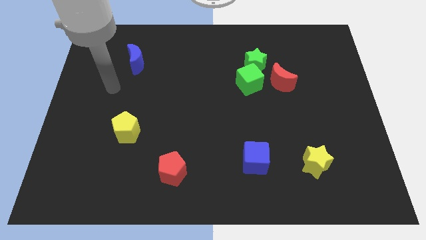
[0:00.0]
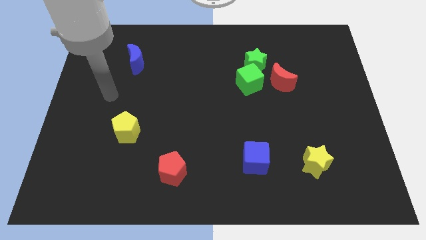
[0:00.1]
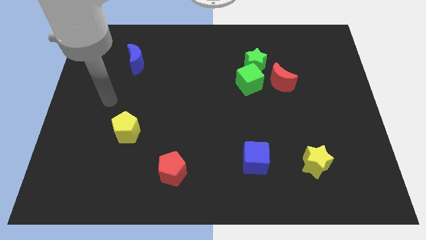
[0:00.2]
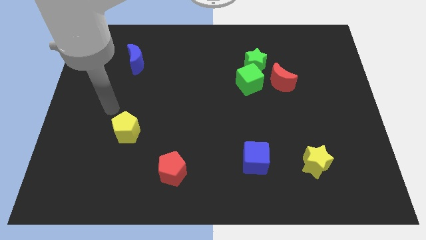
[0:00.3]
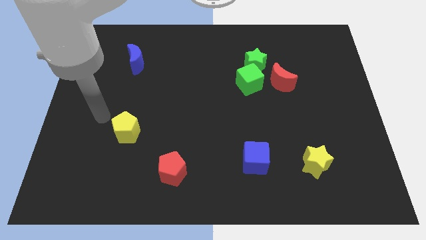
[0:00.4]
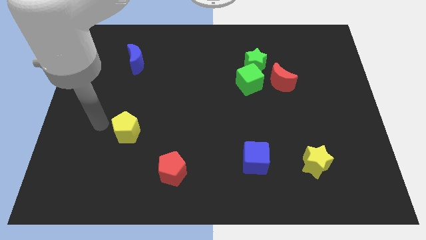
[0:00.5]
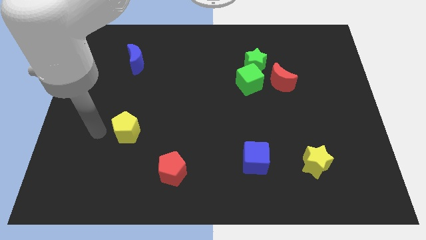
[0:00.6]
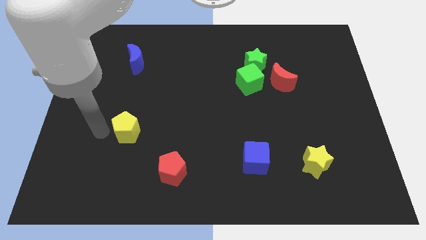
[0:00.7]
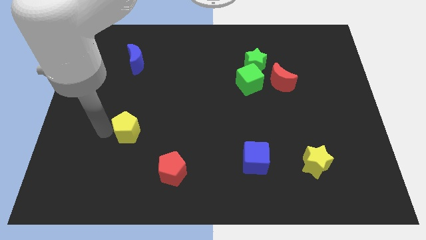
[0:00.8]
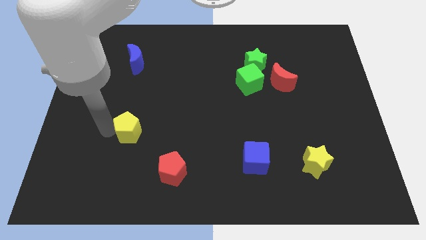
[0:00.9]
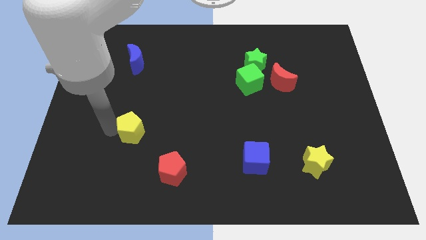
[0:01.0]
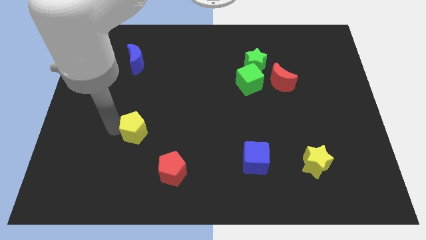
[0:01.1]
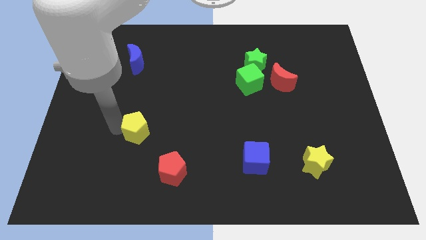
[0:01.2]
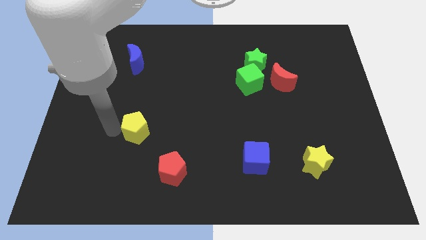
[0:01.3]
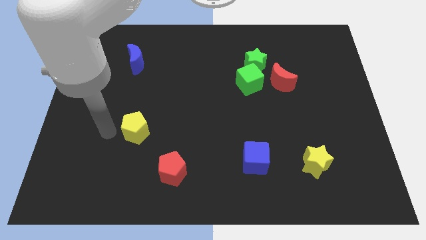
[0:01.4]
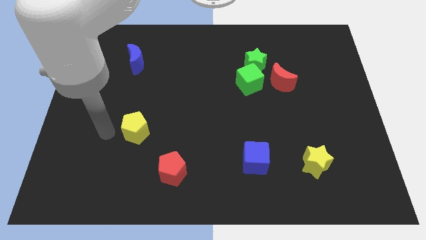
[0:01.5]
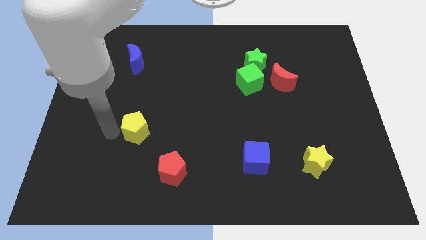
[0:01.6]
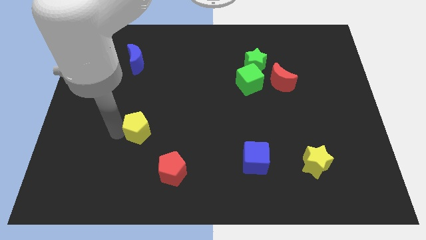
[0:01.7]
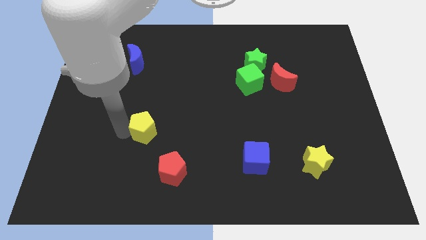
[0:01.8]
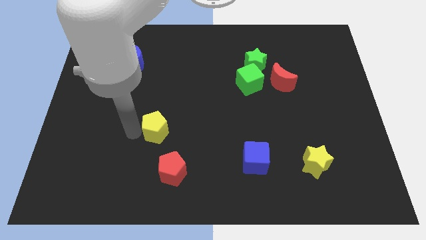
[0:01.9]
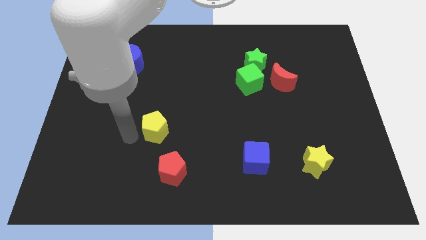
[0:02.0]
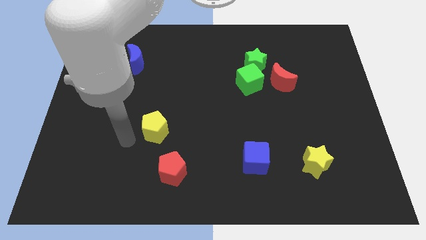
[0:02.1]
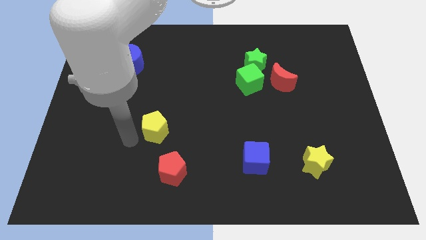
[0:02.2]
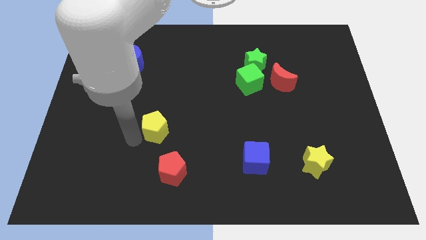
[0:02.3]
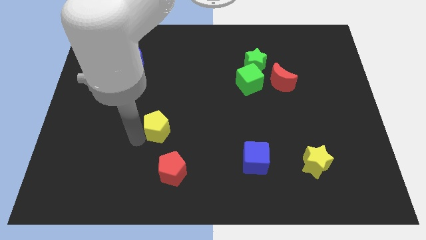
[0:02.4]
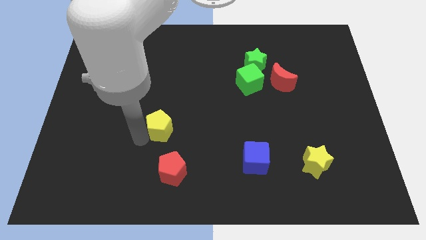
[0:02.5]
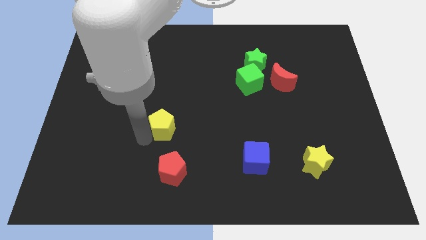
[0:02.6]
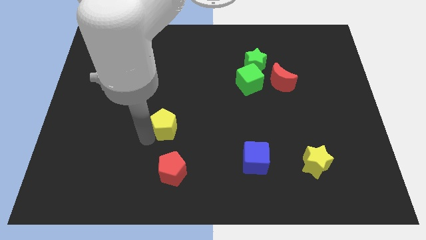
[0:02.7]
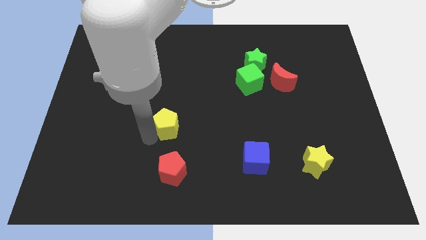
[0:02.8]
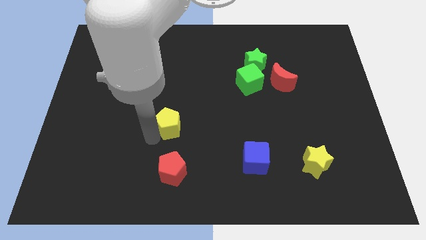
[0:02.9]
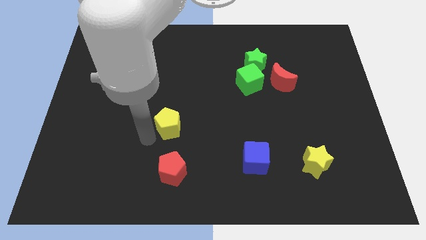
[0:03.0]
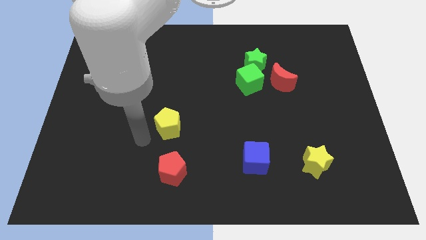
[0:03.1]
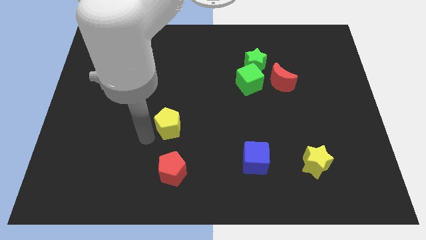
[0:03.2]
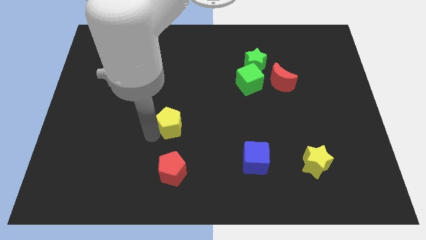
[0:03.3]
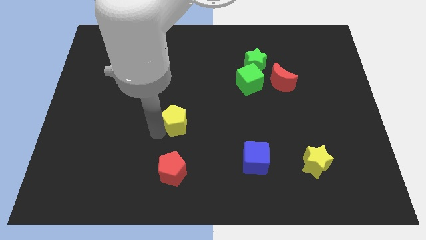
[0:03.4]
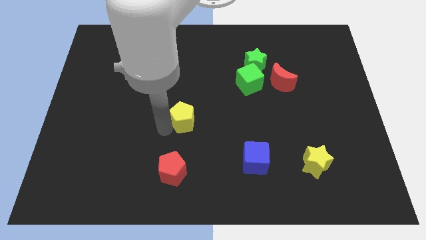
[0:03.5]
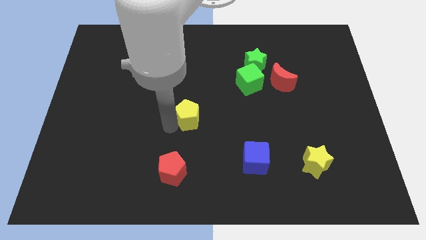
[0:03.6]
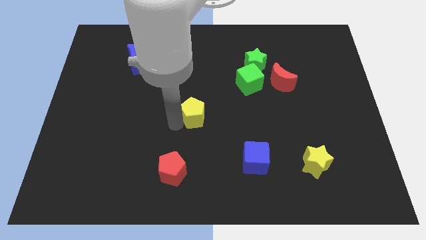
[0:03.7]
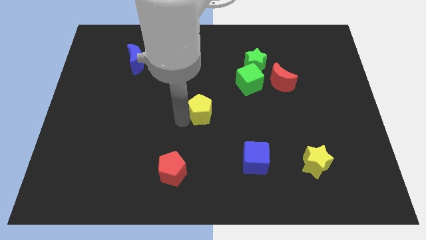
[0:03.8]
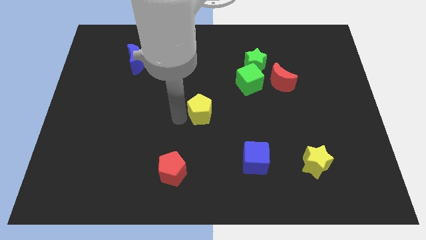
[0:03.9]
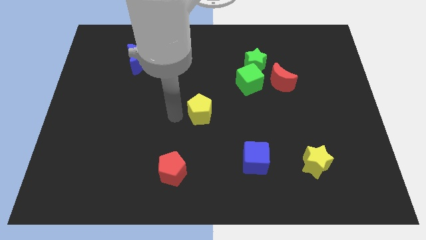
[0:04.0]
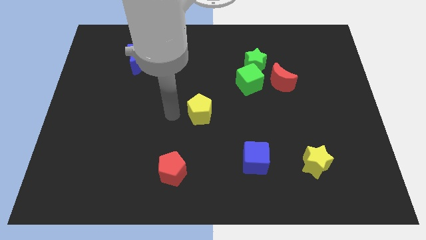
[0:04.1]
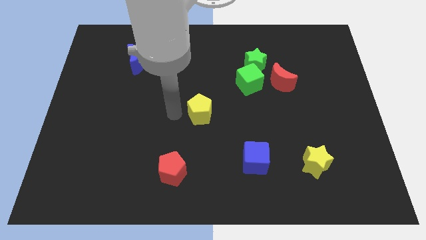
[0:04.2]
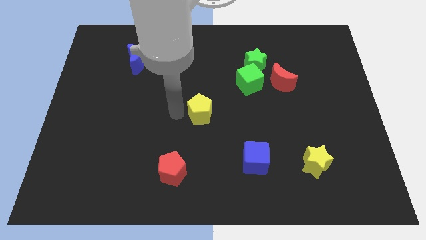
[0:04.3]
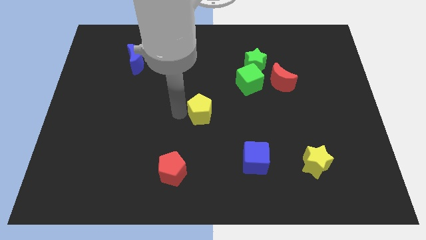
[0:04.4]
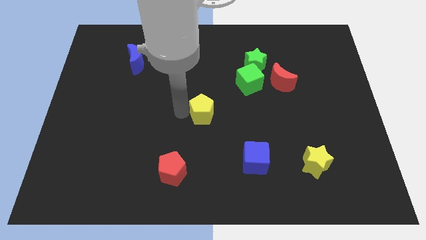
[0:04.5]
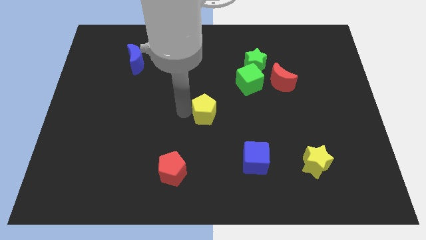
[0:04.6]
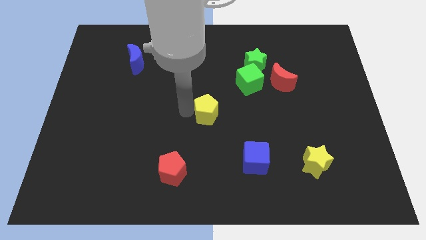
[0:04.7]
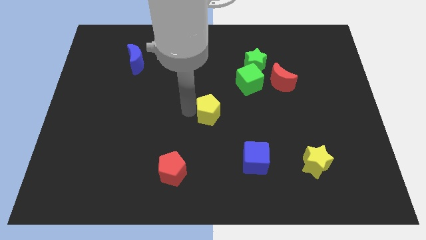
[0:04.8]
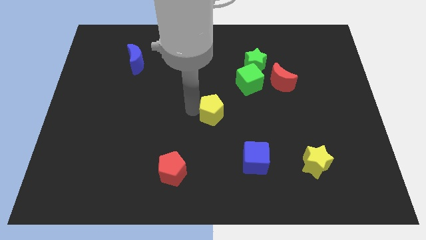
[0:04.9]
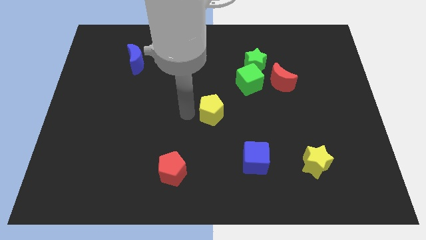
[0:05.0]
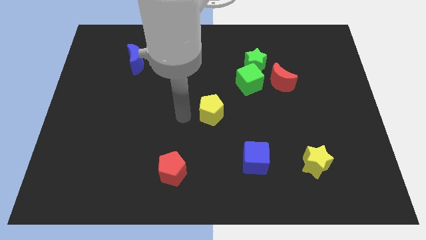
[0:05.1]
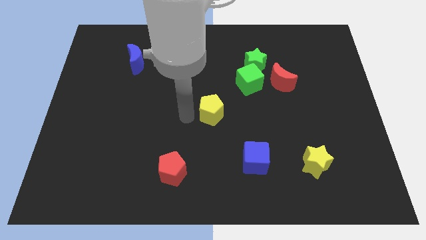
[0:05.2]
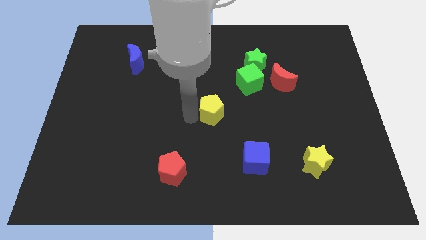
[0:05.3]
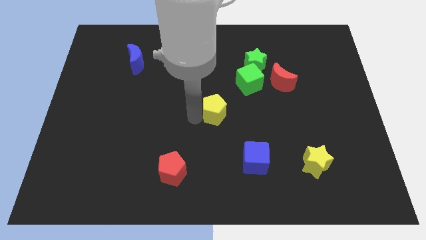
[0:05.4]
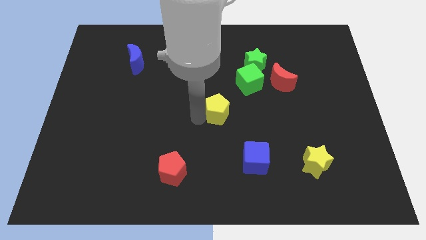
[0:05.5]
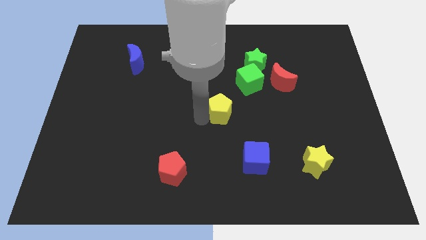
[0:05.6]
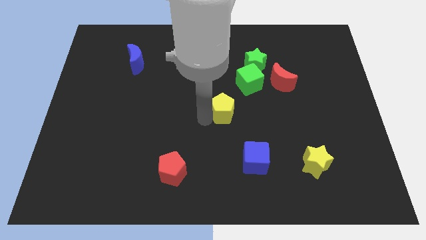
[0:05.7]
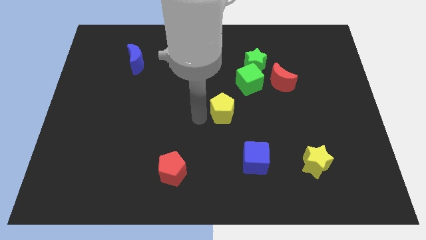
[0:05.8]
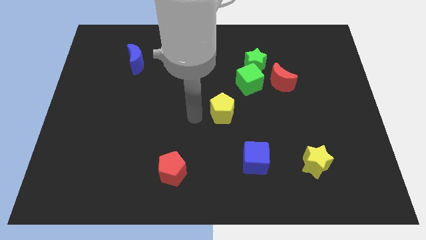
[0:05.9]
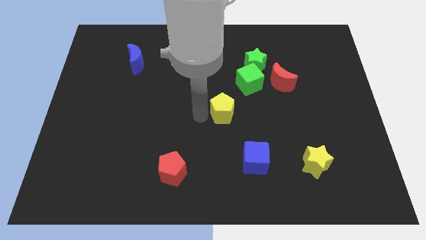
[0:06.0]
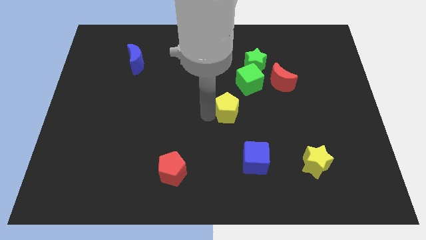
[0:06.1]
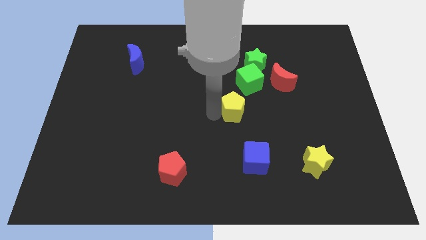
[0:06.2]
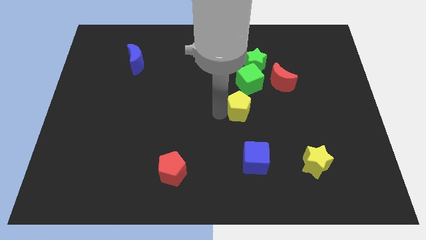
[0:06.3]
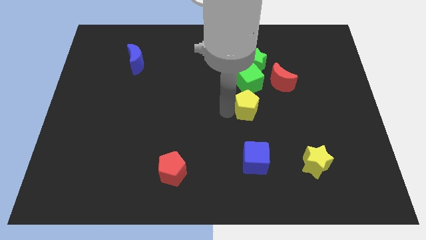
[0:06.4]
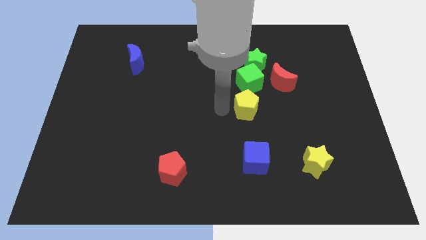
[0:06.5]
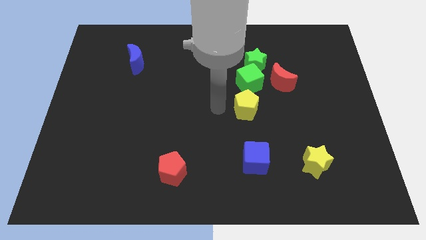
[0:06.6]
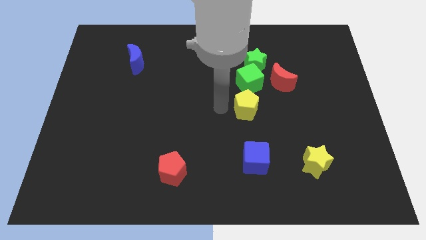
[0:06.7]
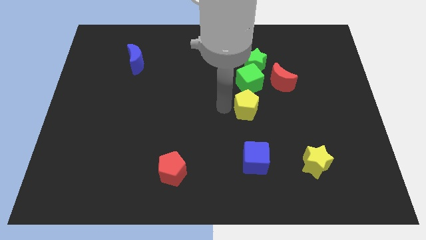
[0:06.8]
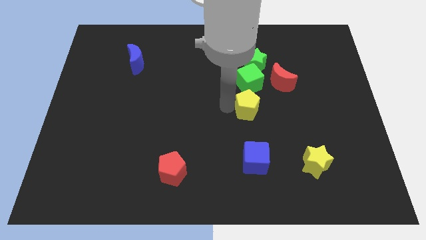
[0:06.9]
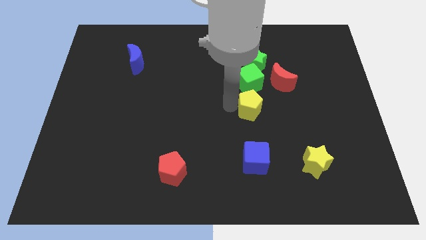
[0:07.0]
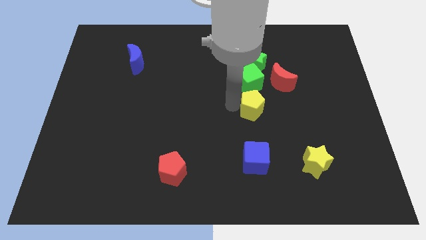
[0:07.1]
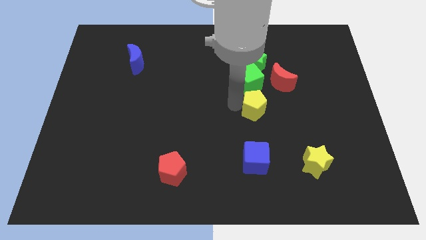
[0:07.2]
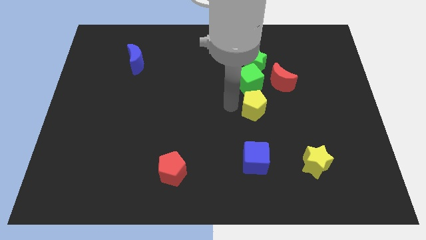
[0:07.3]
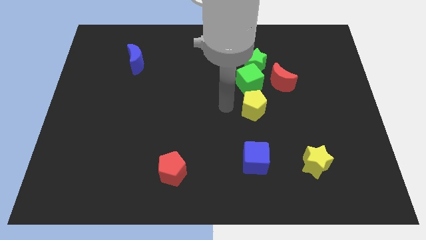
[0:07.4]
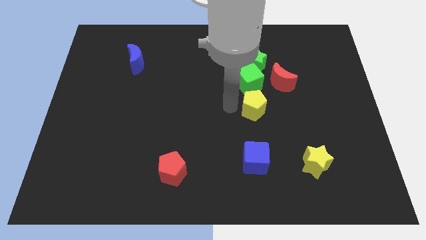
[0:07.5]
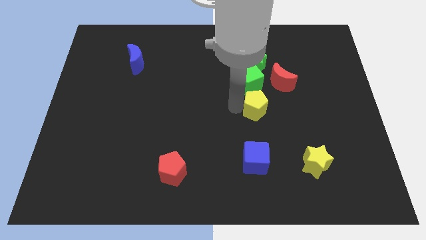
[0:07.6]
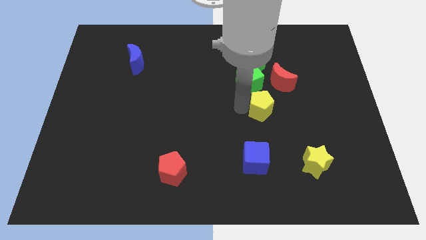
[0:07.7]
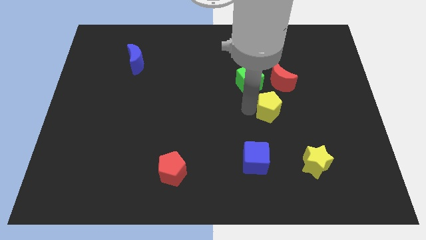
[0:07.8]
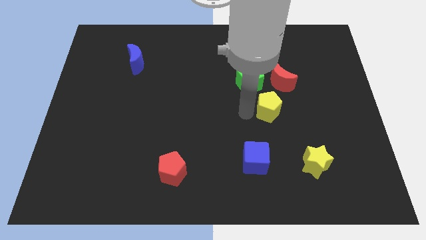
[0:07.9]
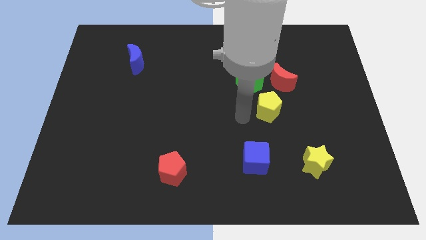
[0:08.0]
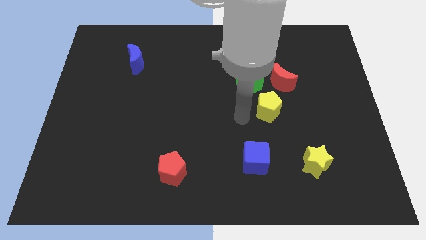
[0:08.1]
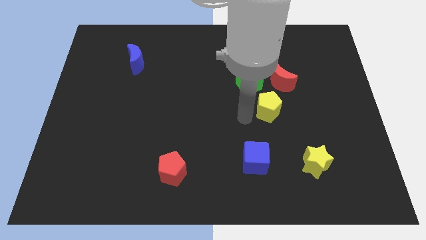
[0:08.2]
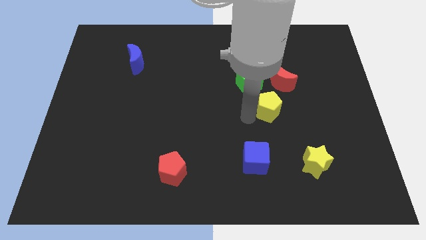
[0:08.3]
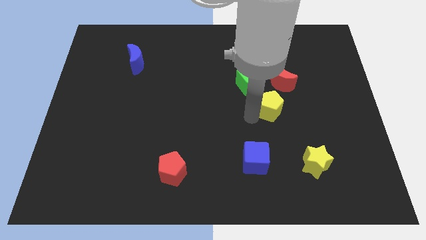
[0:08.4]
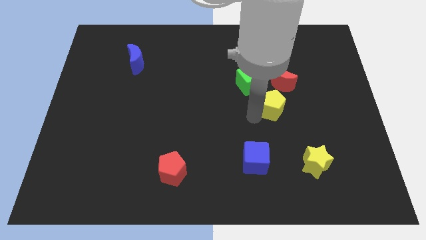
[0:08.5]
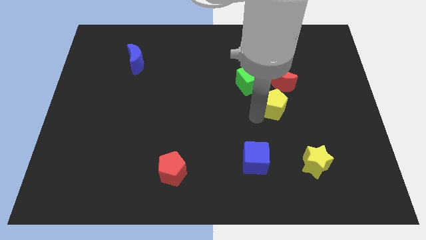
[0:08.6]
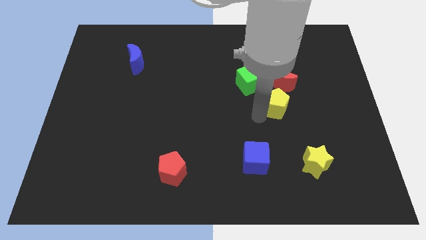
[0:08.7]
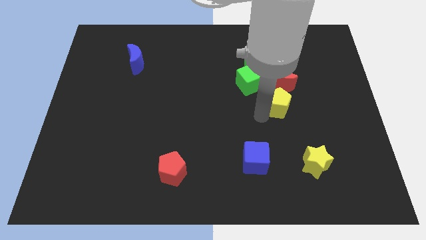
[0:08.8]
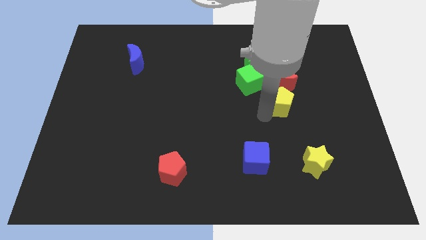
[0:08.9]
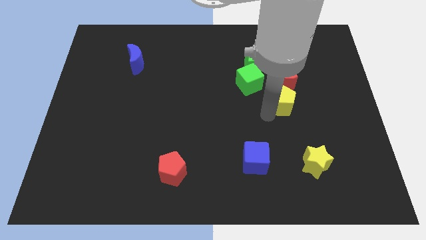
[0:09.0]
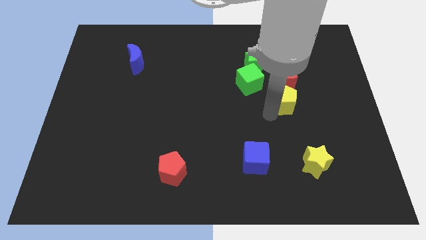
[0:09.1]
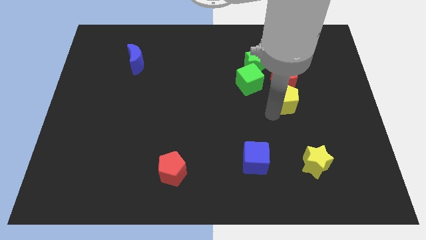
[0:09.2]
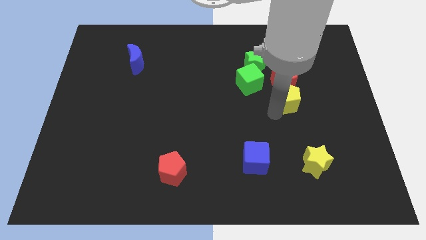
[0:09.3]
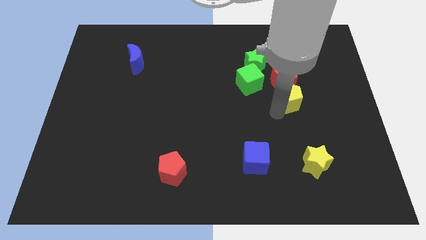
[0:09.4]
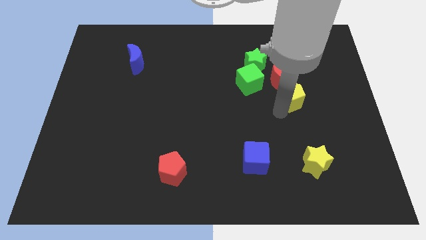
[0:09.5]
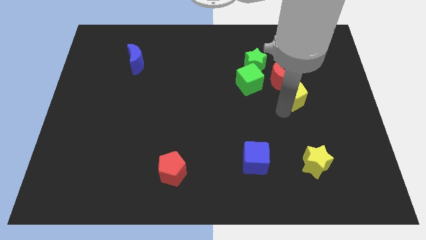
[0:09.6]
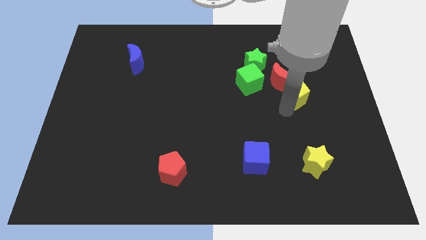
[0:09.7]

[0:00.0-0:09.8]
push the yellow pentagon to the right side of the green cube
